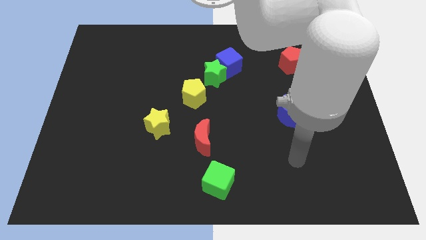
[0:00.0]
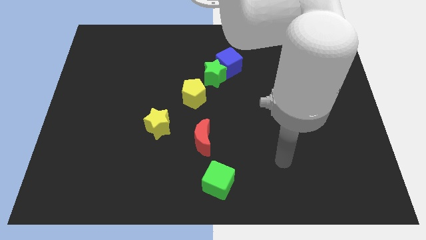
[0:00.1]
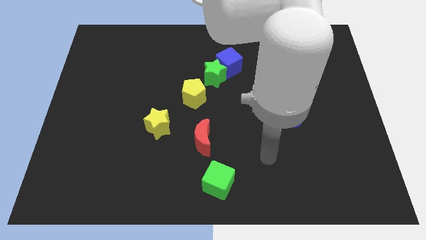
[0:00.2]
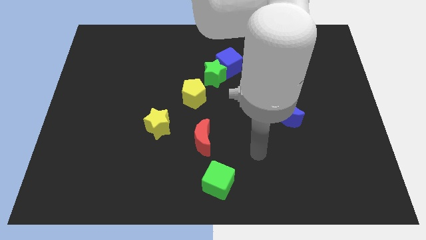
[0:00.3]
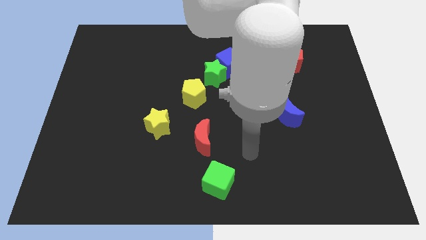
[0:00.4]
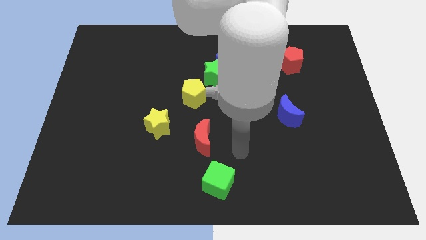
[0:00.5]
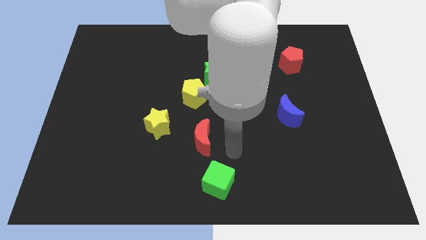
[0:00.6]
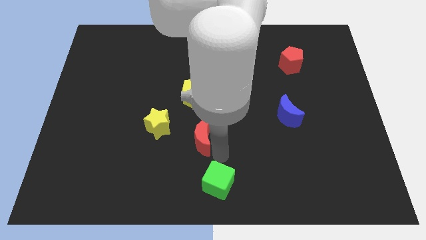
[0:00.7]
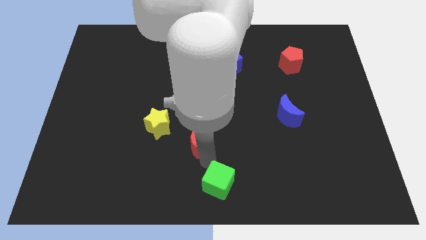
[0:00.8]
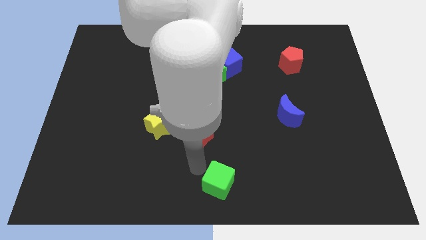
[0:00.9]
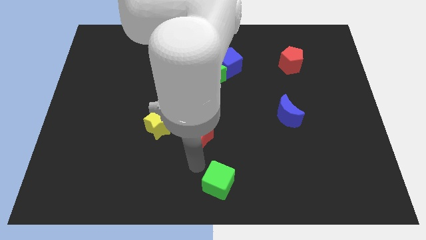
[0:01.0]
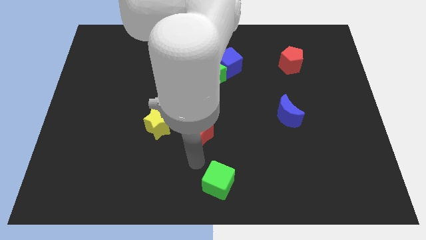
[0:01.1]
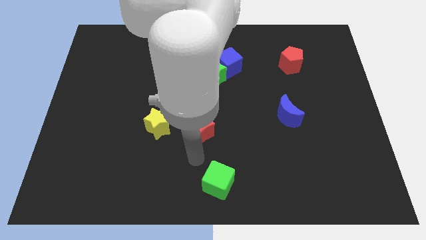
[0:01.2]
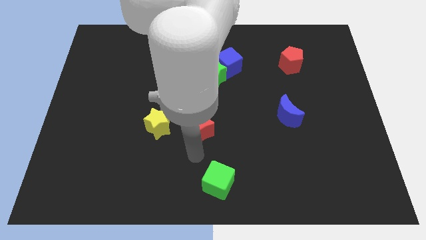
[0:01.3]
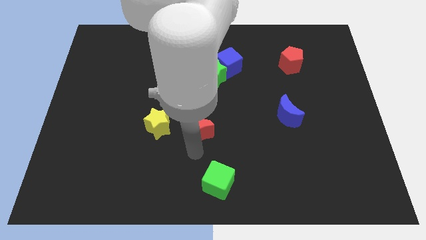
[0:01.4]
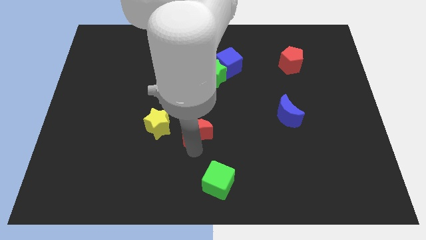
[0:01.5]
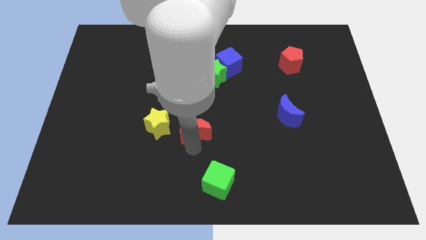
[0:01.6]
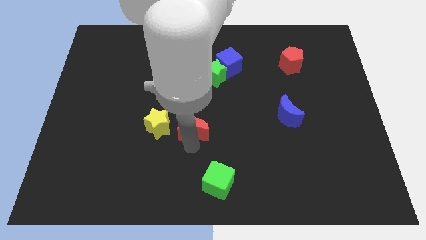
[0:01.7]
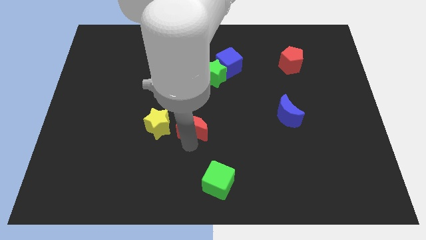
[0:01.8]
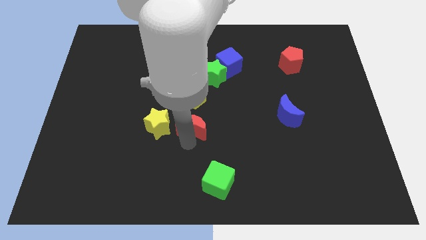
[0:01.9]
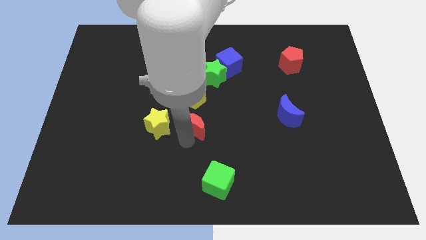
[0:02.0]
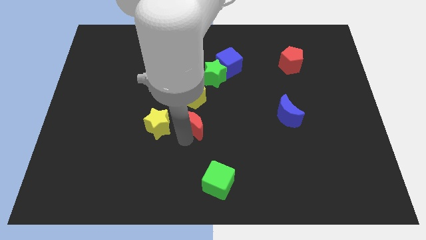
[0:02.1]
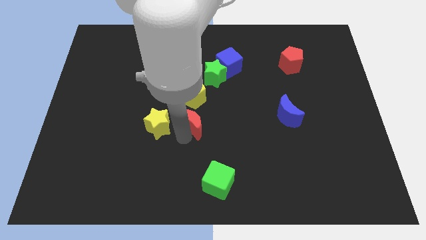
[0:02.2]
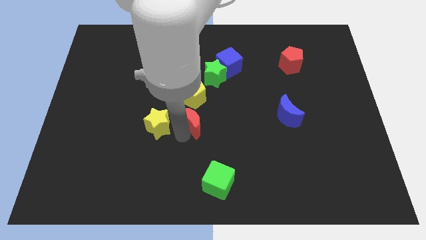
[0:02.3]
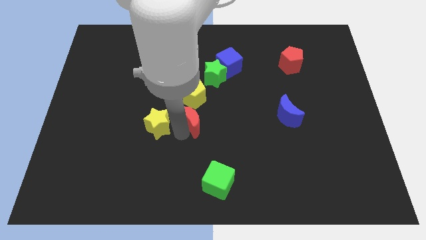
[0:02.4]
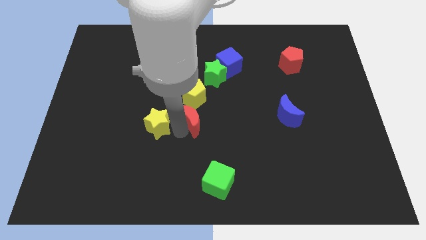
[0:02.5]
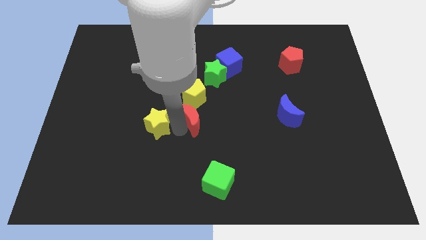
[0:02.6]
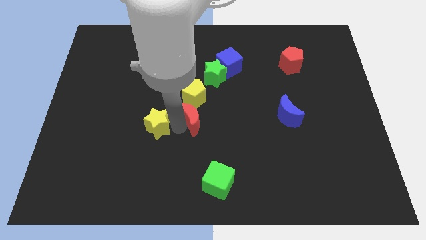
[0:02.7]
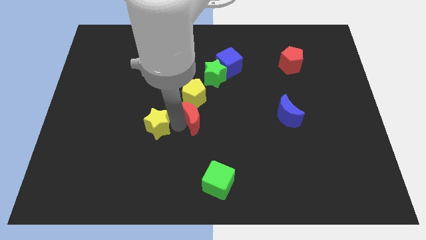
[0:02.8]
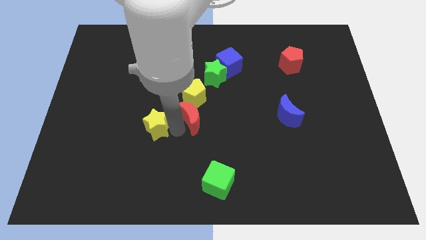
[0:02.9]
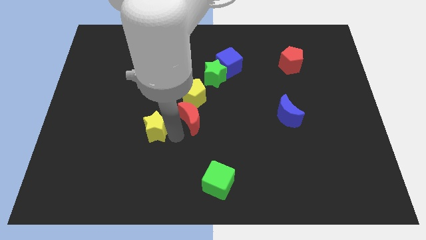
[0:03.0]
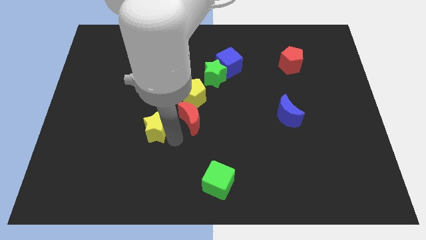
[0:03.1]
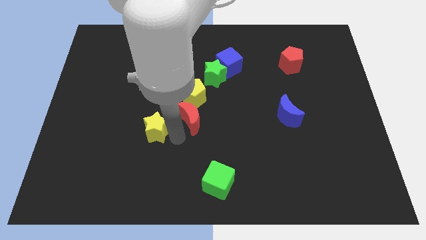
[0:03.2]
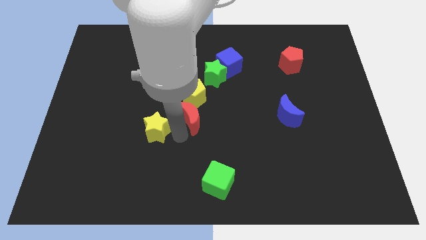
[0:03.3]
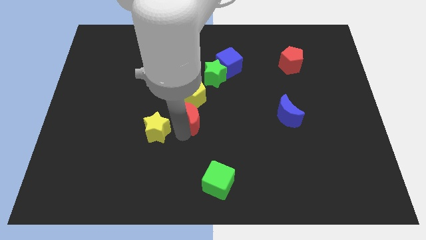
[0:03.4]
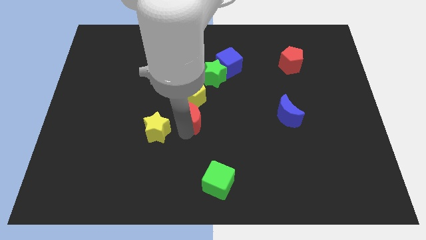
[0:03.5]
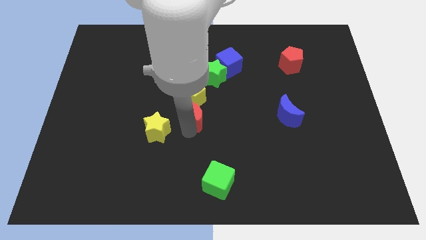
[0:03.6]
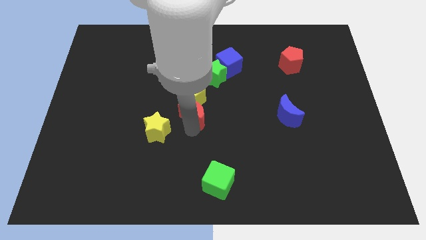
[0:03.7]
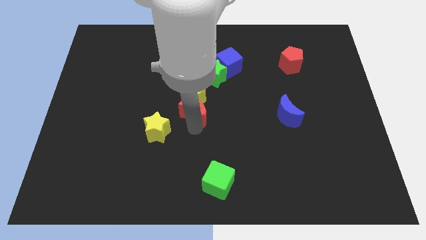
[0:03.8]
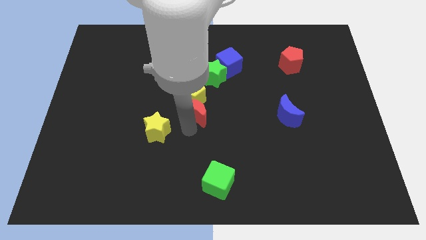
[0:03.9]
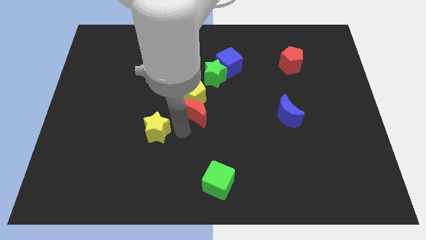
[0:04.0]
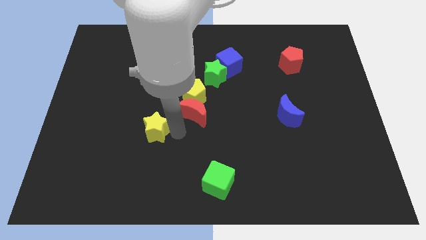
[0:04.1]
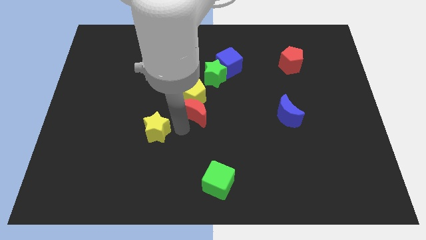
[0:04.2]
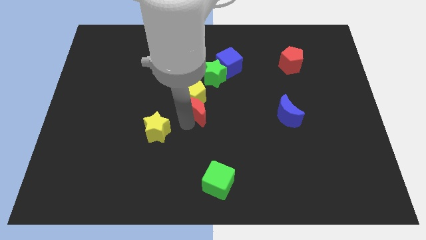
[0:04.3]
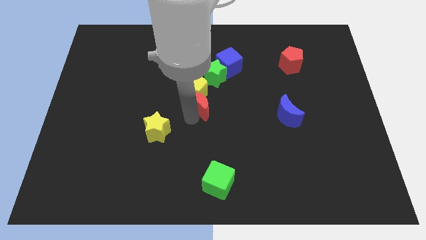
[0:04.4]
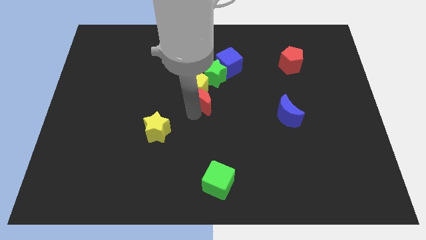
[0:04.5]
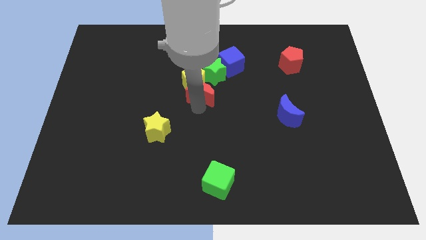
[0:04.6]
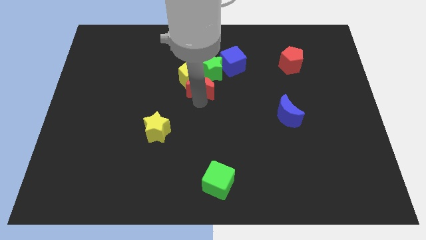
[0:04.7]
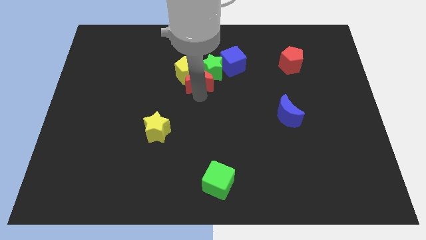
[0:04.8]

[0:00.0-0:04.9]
slide the red moon to the green star

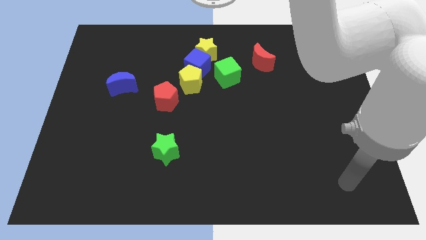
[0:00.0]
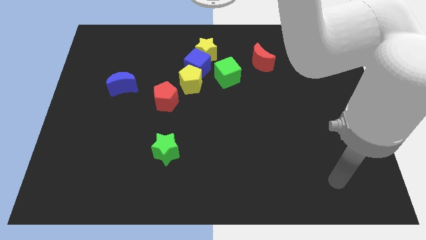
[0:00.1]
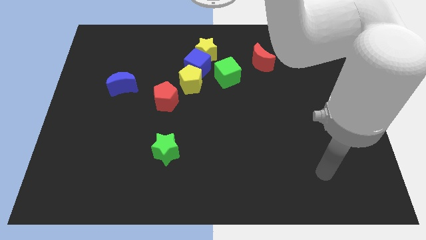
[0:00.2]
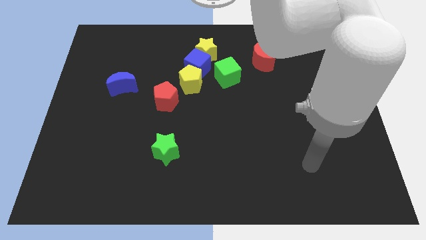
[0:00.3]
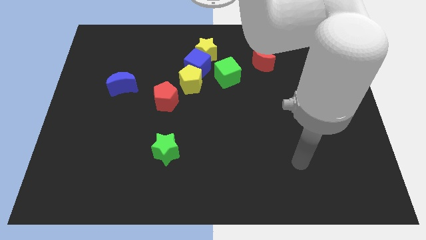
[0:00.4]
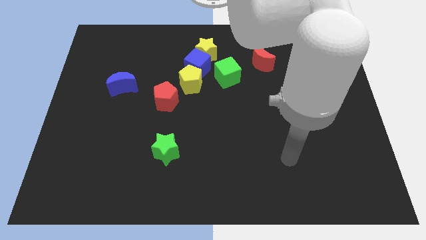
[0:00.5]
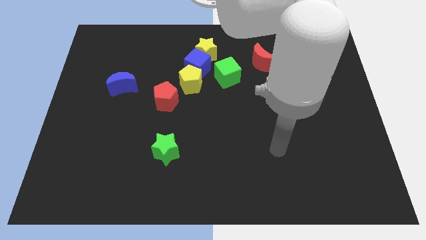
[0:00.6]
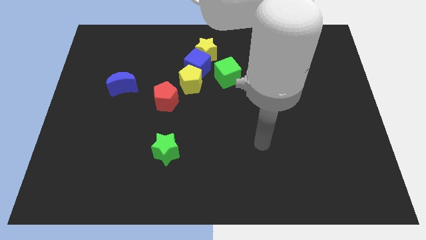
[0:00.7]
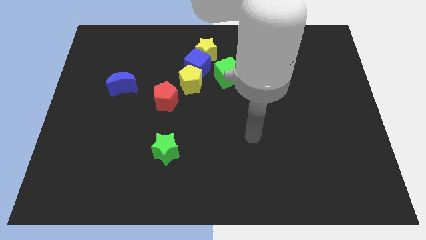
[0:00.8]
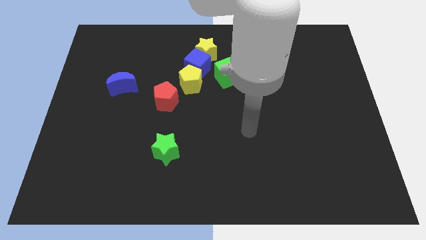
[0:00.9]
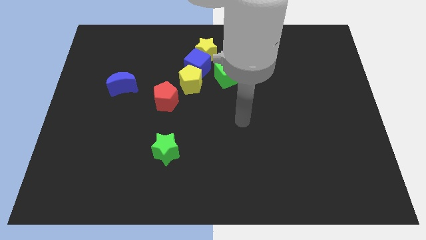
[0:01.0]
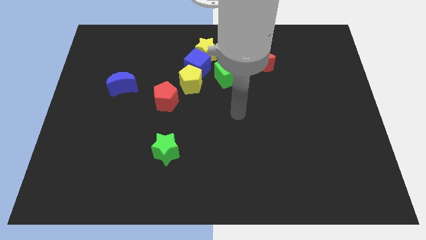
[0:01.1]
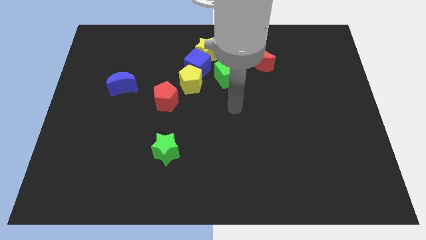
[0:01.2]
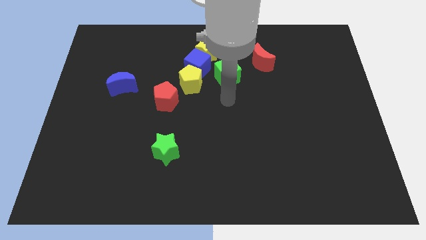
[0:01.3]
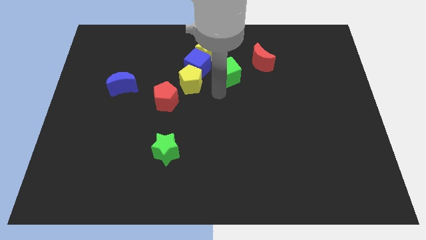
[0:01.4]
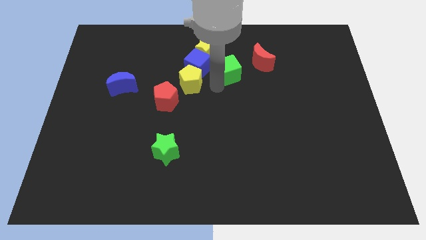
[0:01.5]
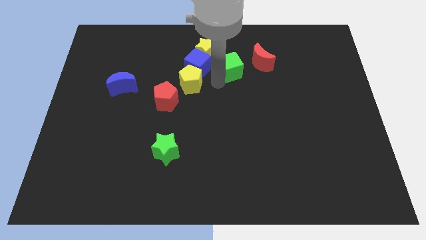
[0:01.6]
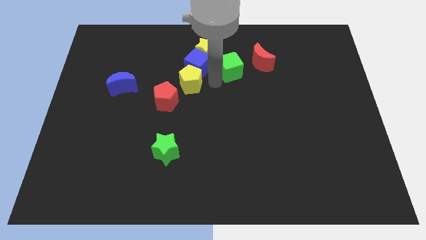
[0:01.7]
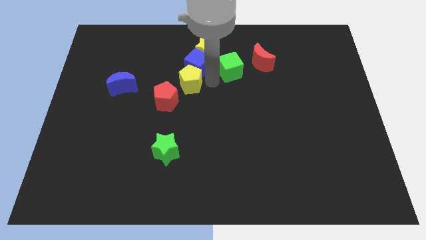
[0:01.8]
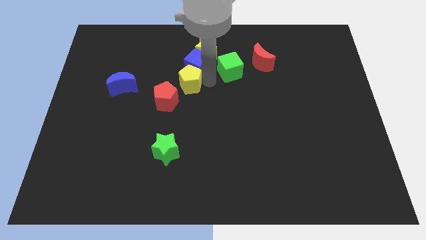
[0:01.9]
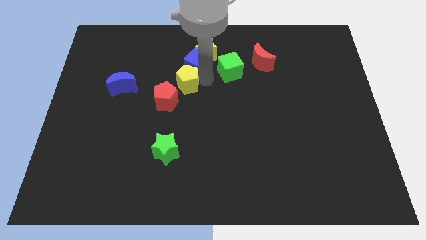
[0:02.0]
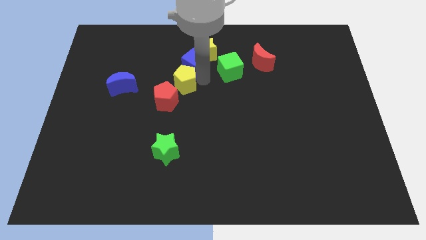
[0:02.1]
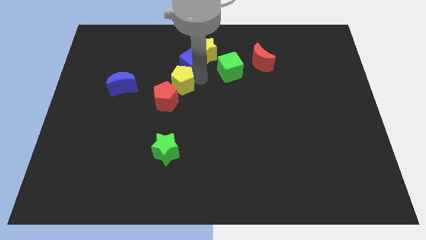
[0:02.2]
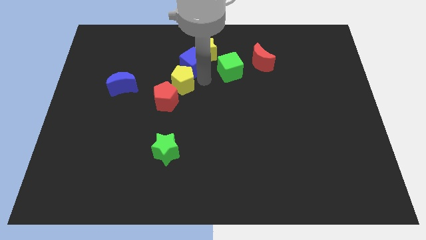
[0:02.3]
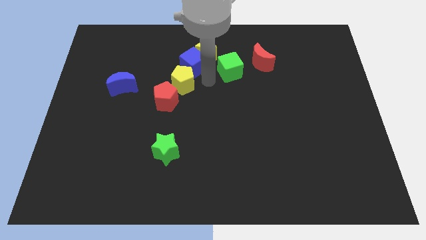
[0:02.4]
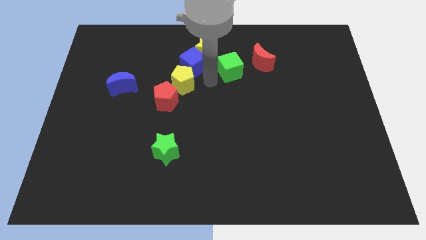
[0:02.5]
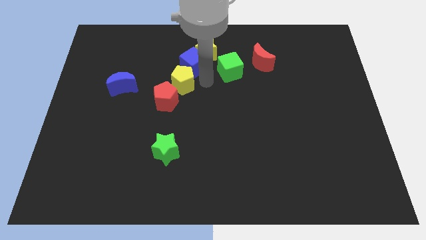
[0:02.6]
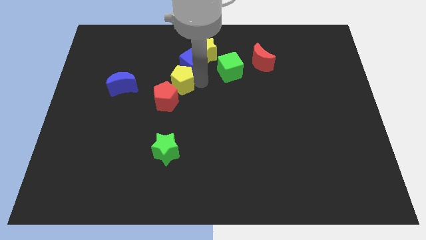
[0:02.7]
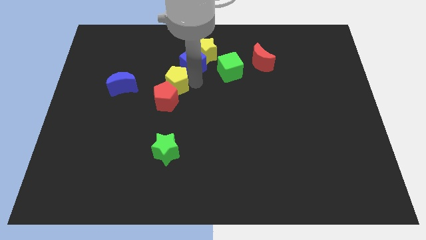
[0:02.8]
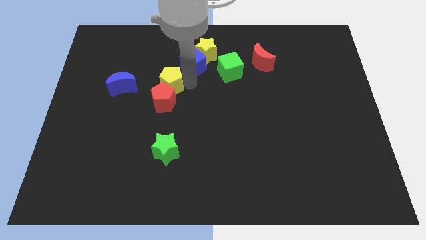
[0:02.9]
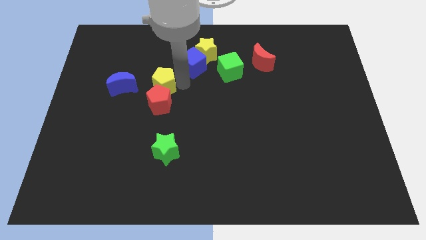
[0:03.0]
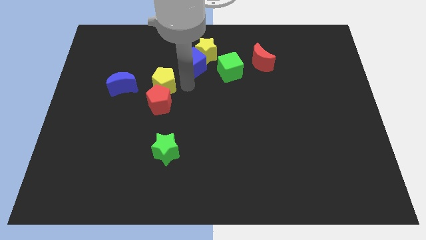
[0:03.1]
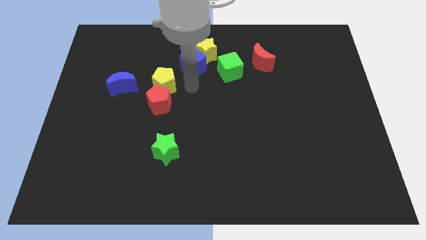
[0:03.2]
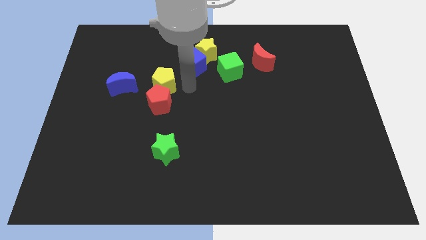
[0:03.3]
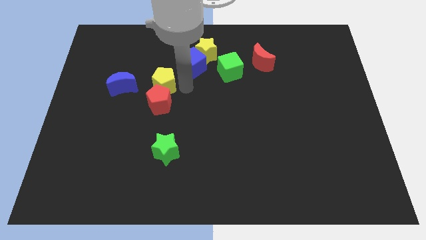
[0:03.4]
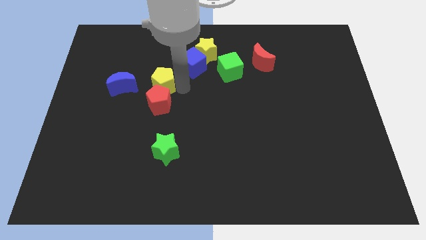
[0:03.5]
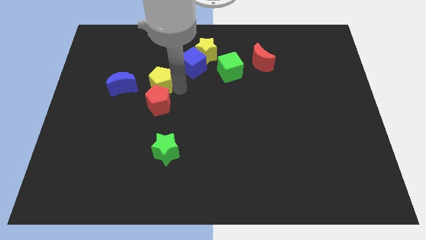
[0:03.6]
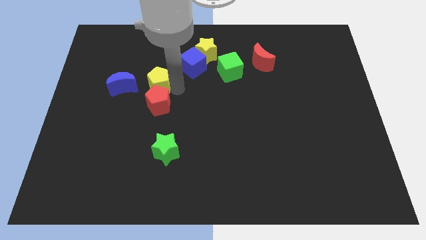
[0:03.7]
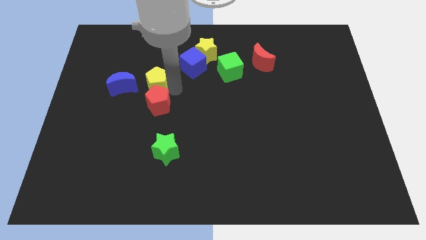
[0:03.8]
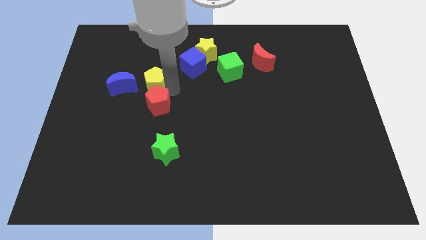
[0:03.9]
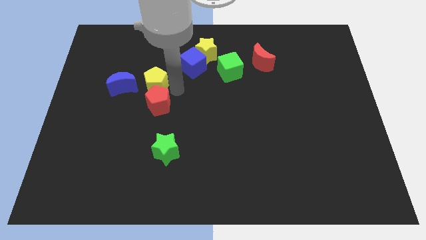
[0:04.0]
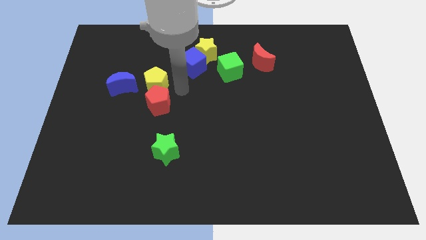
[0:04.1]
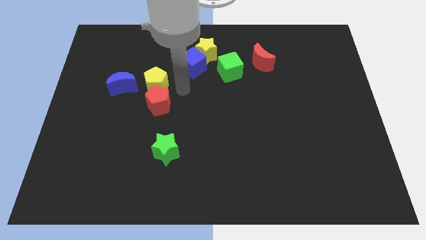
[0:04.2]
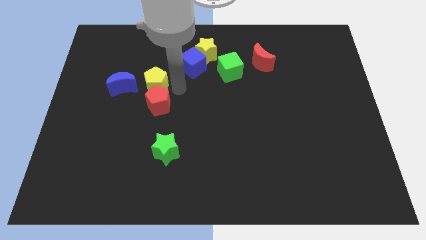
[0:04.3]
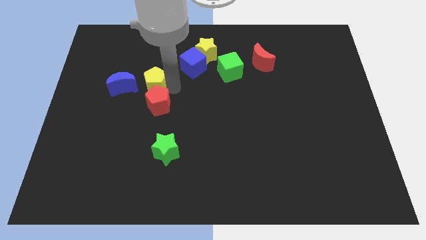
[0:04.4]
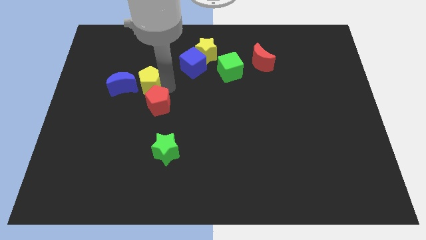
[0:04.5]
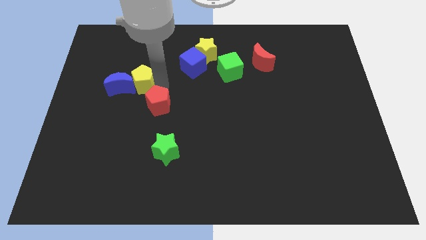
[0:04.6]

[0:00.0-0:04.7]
move the yellow pentagon close to the blue moon
